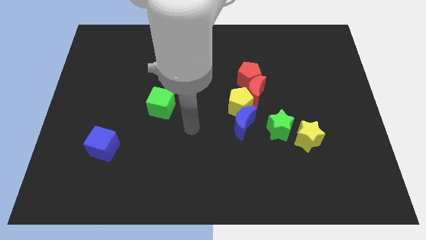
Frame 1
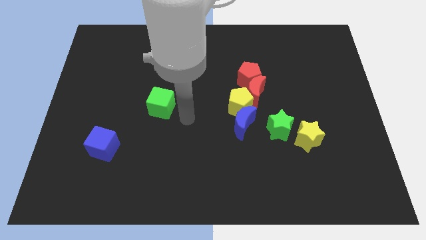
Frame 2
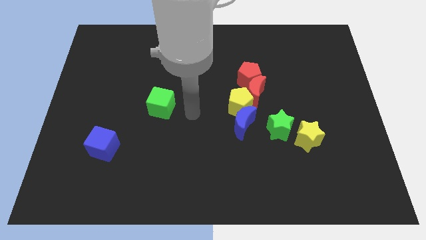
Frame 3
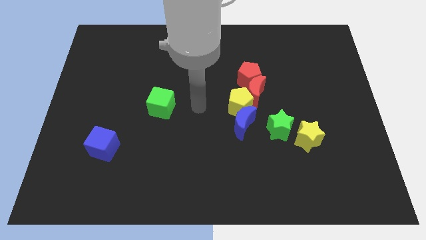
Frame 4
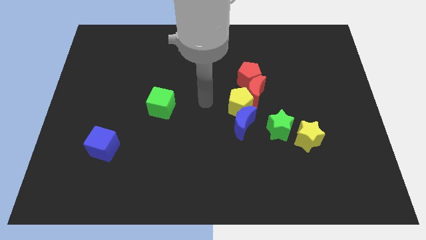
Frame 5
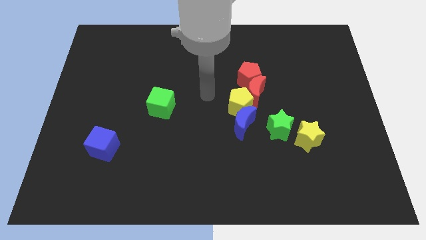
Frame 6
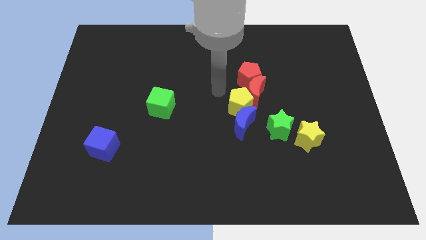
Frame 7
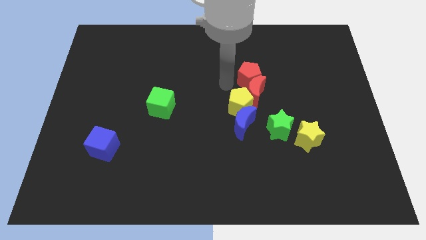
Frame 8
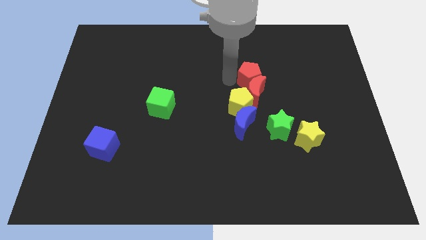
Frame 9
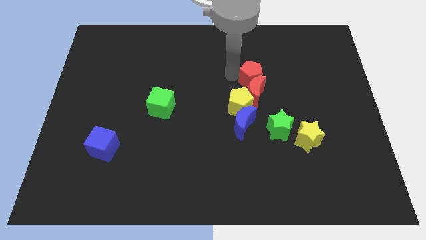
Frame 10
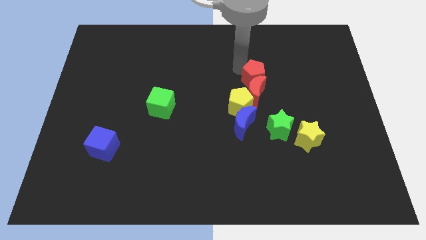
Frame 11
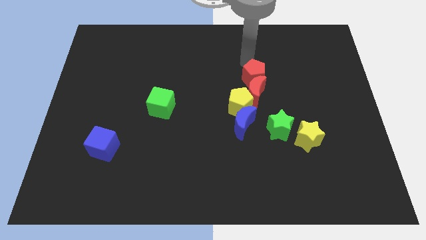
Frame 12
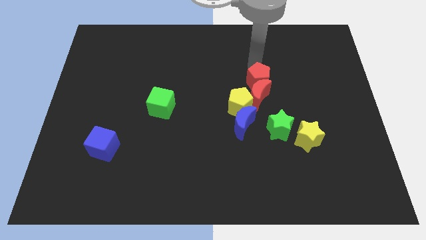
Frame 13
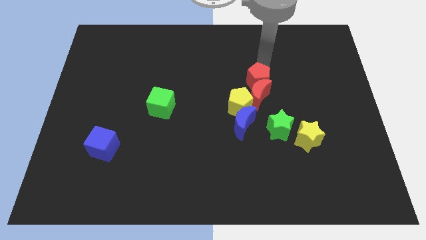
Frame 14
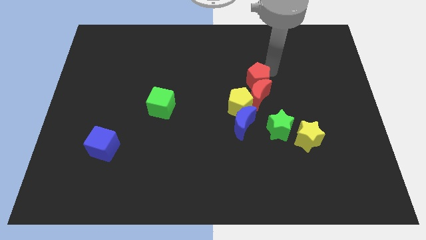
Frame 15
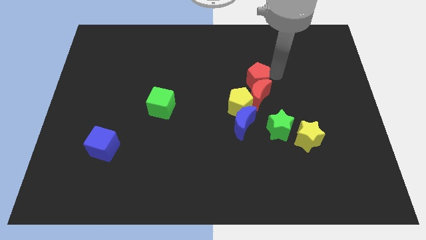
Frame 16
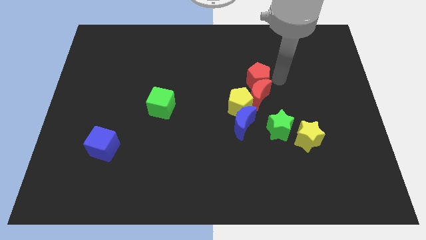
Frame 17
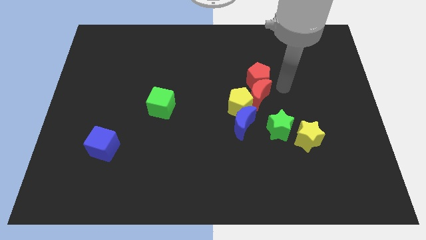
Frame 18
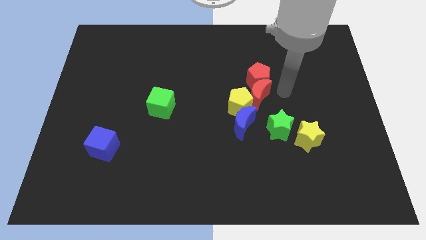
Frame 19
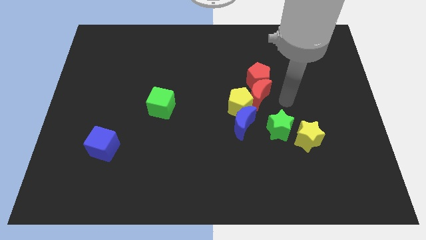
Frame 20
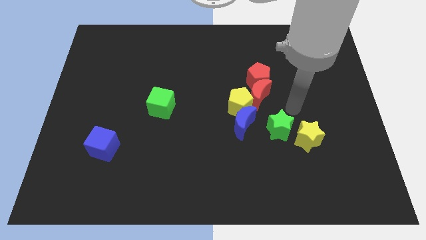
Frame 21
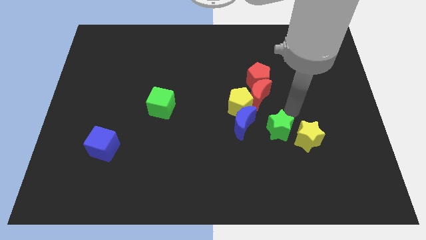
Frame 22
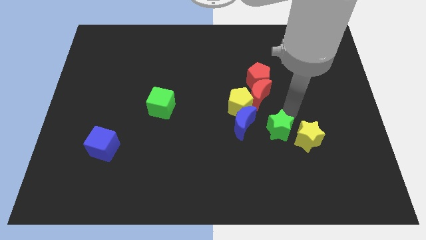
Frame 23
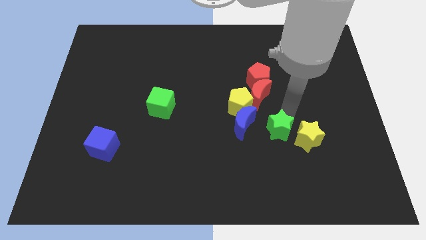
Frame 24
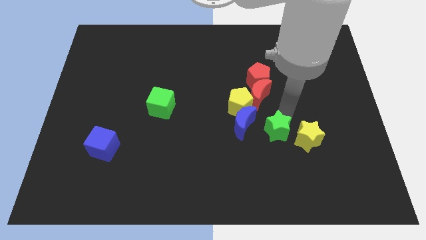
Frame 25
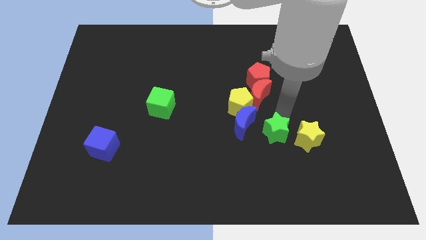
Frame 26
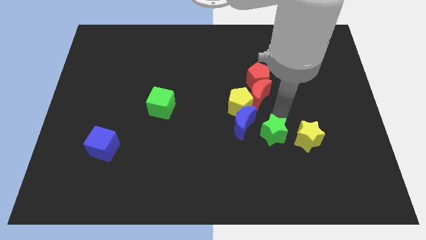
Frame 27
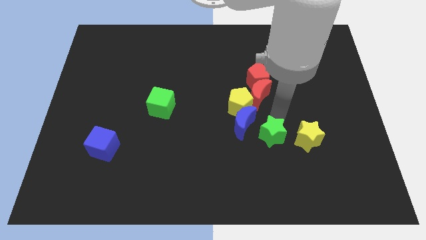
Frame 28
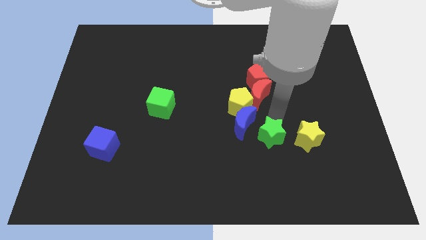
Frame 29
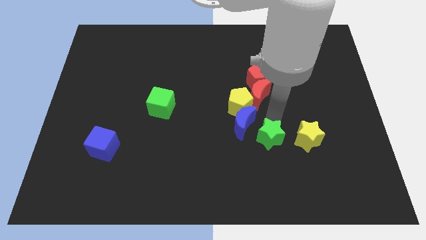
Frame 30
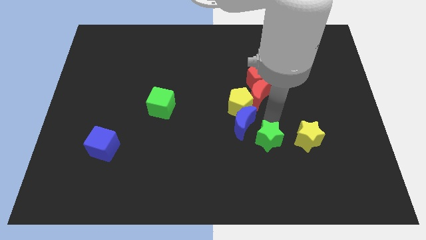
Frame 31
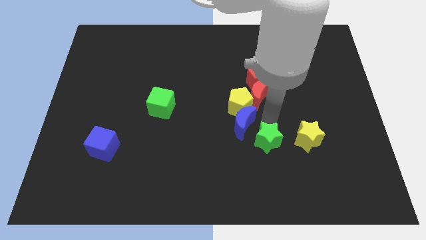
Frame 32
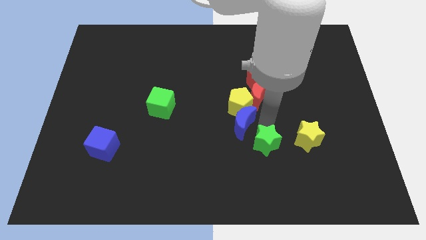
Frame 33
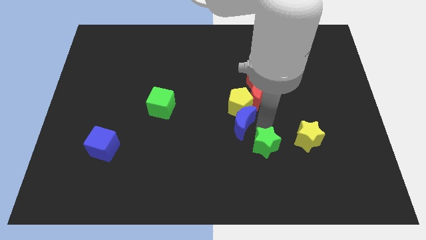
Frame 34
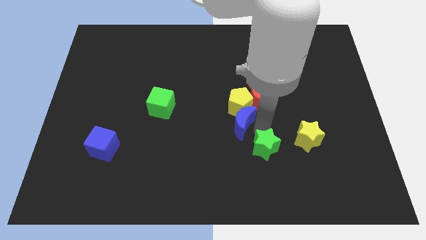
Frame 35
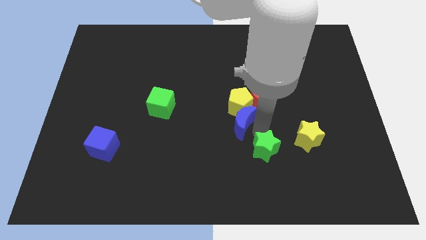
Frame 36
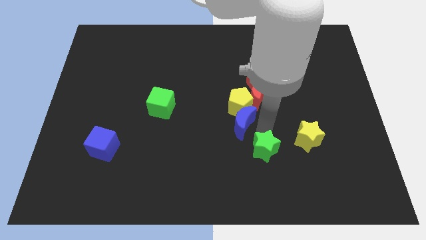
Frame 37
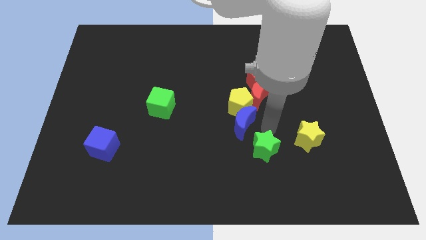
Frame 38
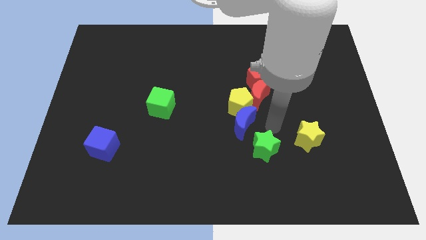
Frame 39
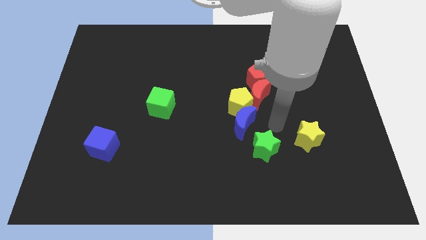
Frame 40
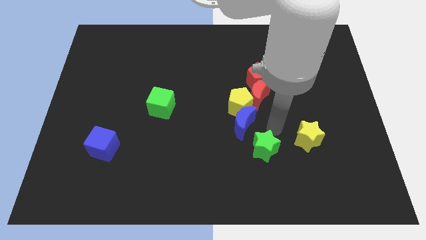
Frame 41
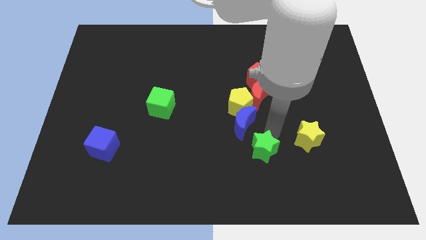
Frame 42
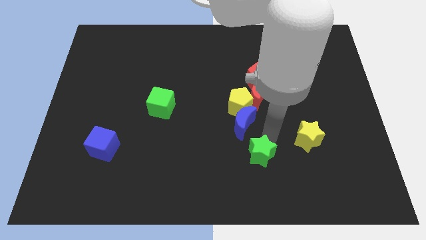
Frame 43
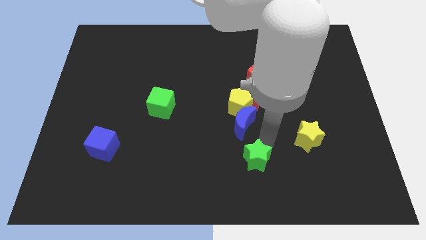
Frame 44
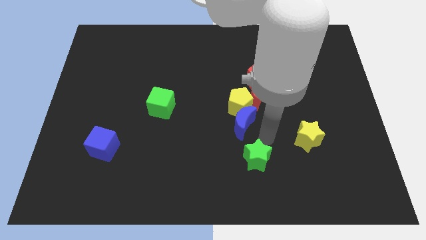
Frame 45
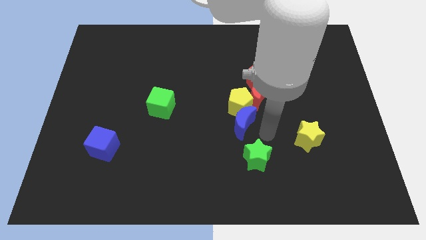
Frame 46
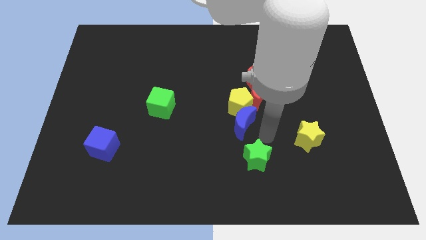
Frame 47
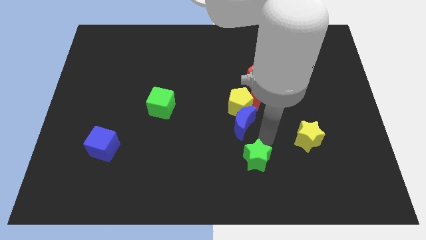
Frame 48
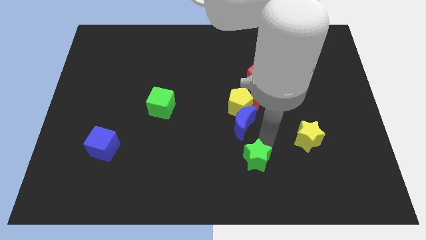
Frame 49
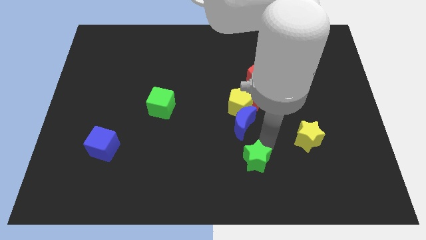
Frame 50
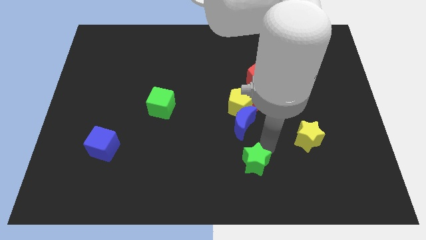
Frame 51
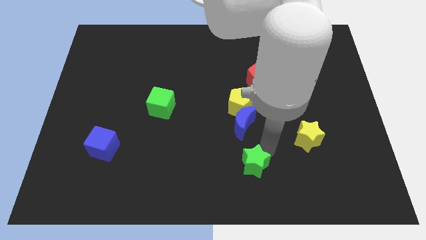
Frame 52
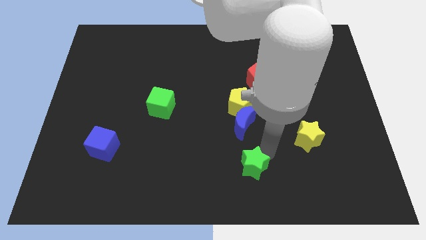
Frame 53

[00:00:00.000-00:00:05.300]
put the green star to the bottom

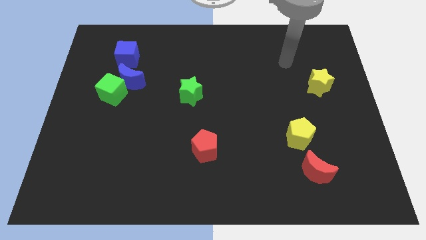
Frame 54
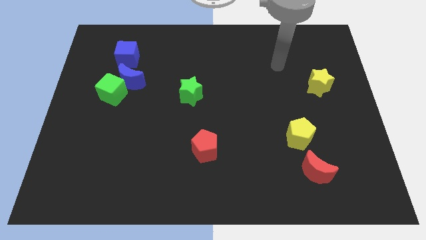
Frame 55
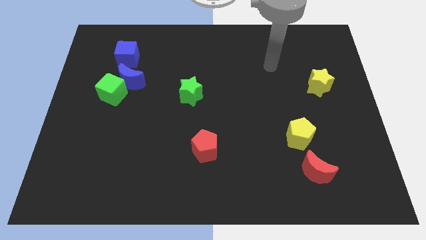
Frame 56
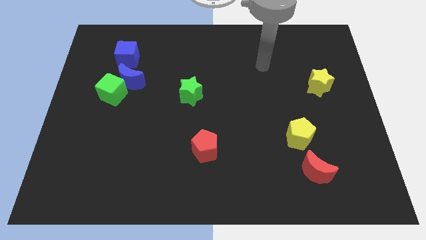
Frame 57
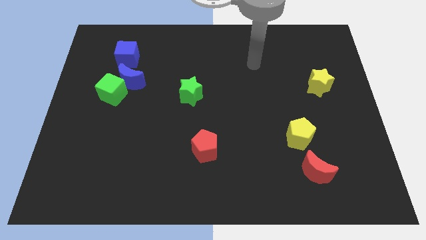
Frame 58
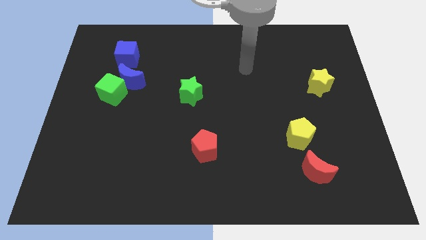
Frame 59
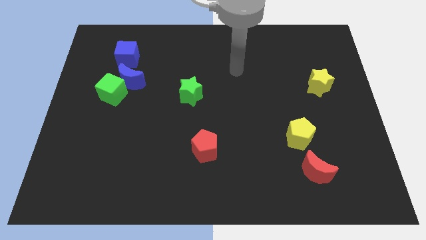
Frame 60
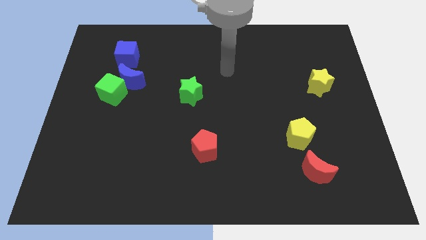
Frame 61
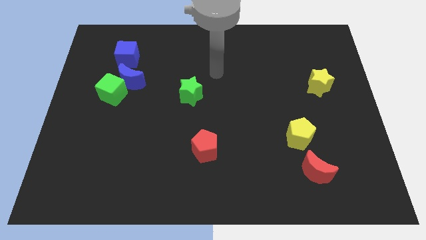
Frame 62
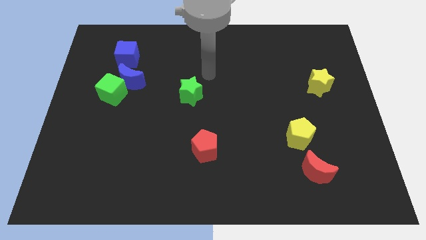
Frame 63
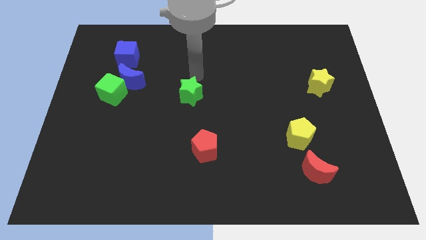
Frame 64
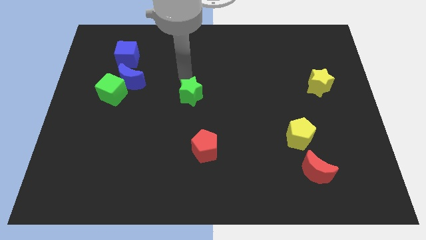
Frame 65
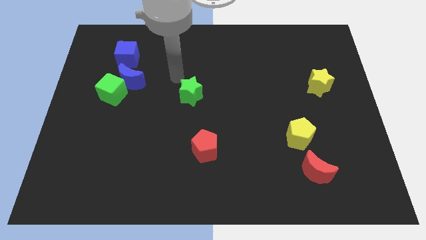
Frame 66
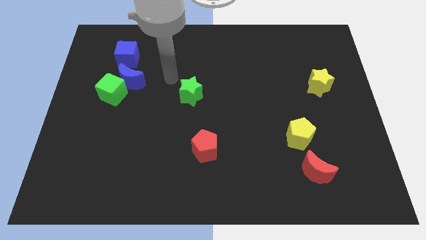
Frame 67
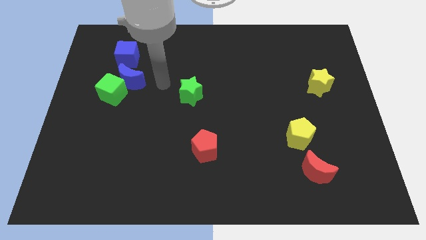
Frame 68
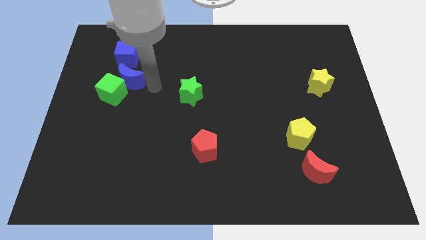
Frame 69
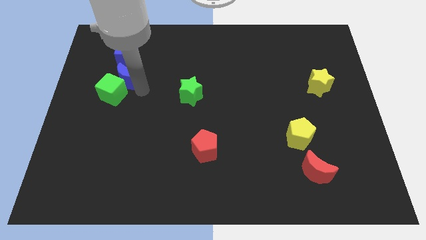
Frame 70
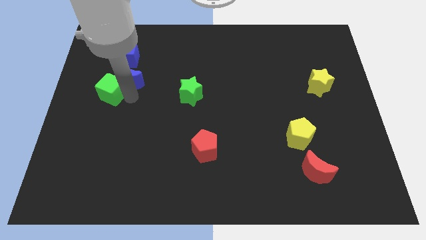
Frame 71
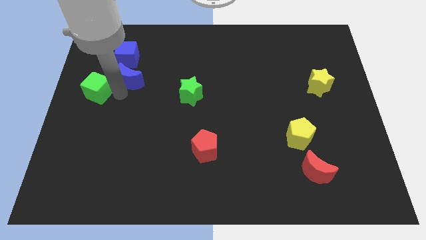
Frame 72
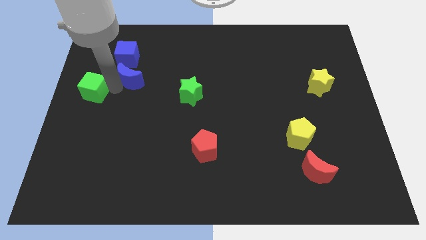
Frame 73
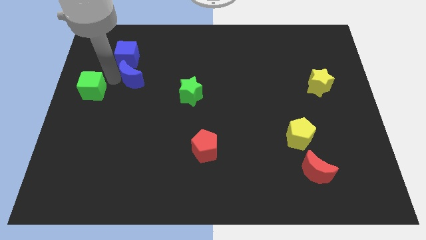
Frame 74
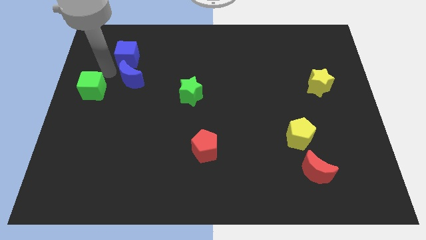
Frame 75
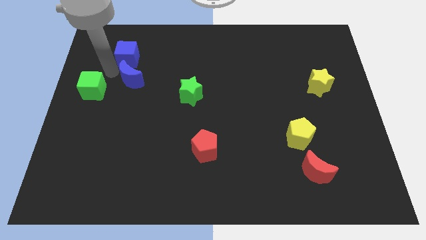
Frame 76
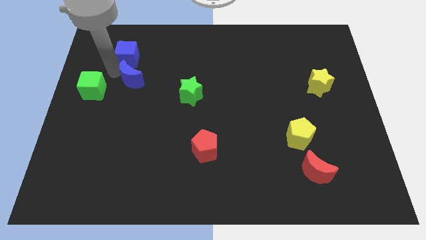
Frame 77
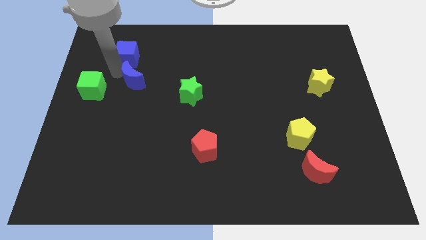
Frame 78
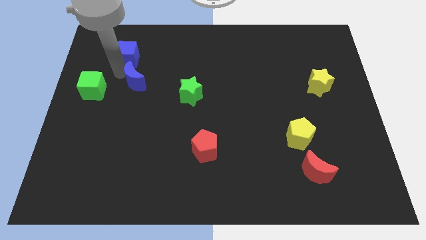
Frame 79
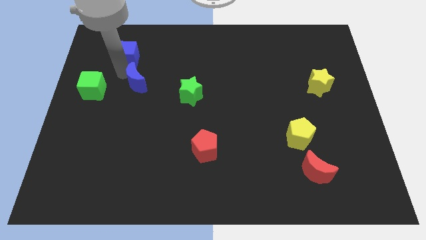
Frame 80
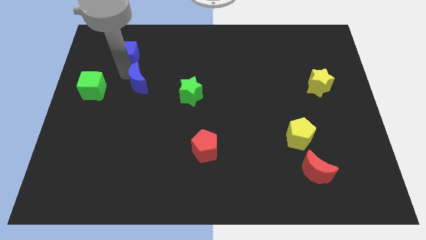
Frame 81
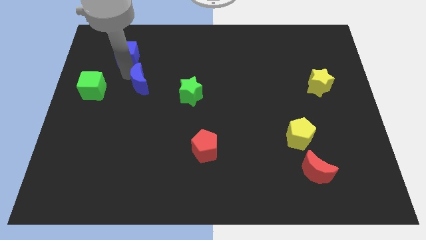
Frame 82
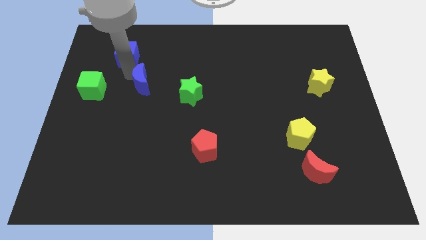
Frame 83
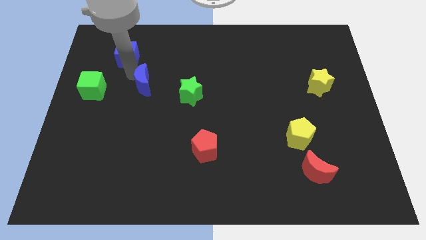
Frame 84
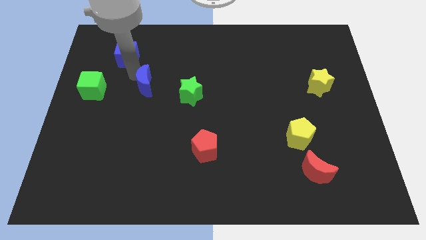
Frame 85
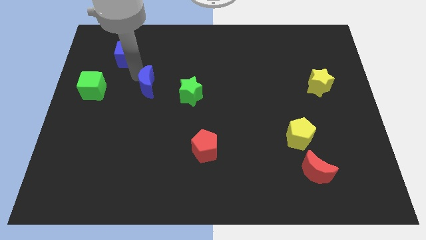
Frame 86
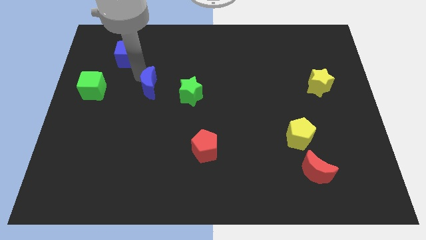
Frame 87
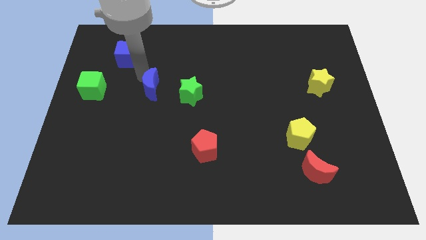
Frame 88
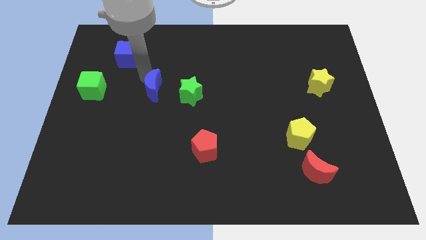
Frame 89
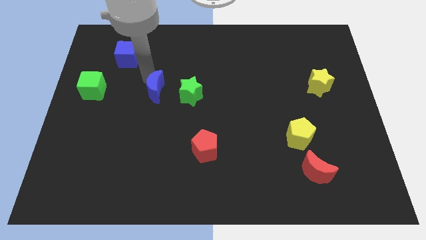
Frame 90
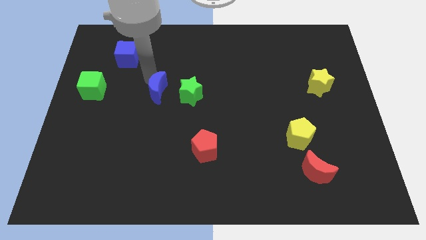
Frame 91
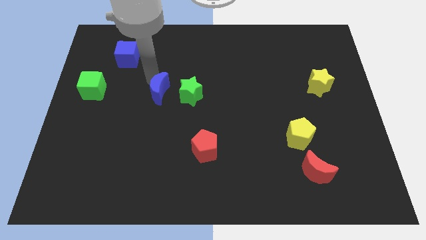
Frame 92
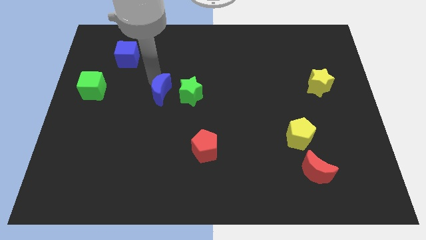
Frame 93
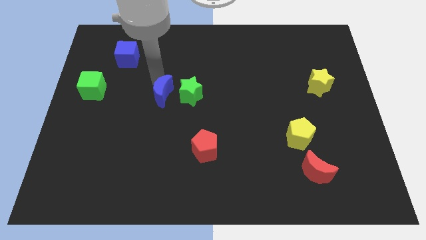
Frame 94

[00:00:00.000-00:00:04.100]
move the blue moon to the center
